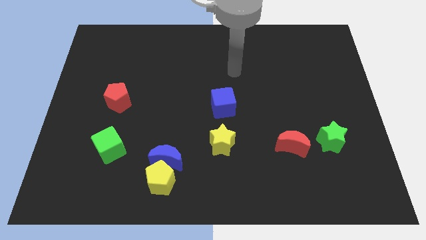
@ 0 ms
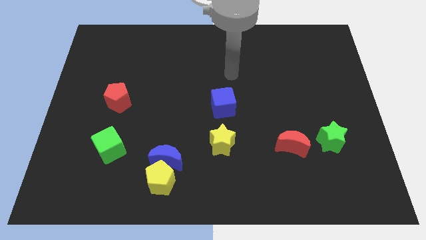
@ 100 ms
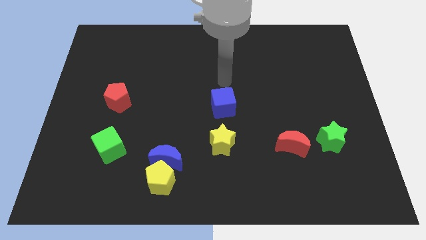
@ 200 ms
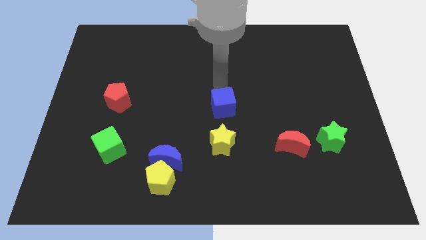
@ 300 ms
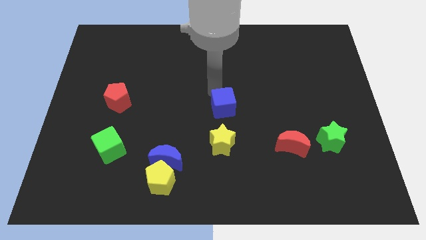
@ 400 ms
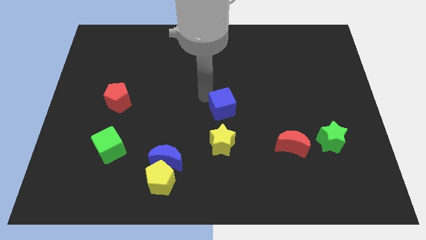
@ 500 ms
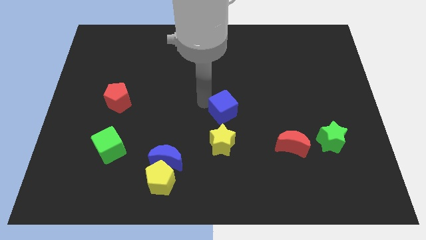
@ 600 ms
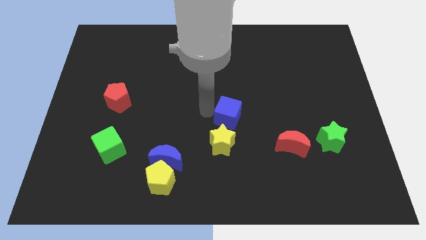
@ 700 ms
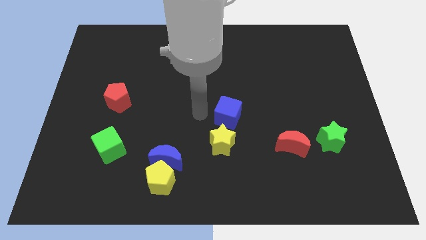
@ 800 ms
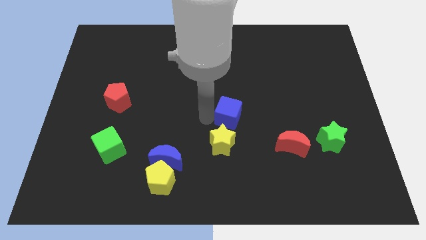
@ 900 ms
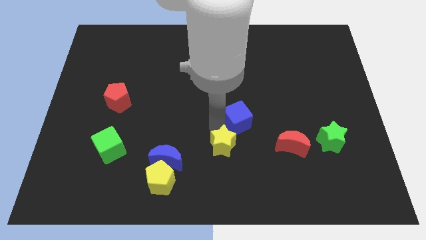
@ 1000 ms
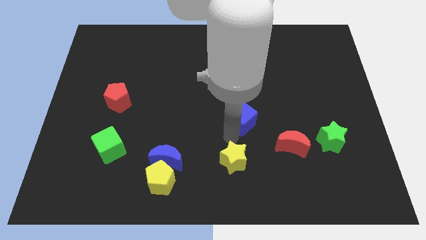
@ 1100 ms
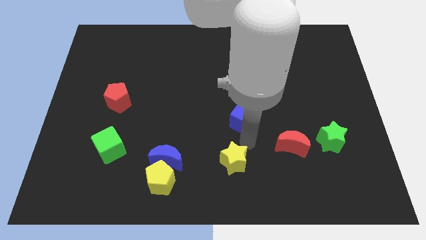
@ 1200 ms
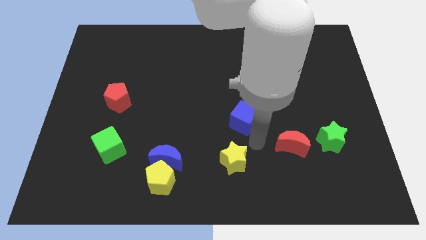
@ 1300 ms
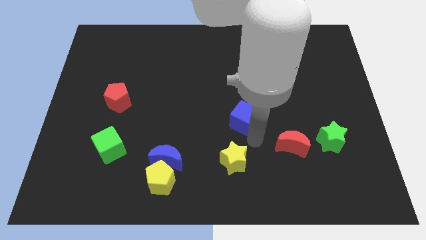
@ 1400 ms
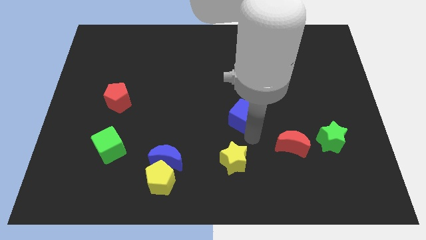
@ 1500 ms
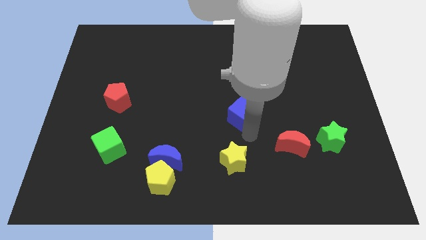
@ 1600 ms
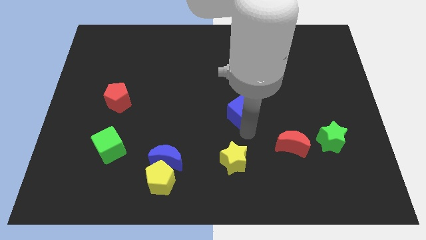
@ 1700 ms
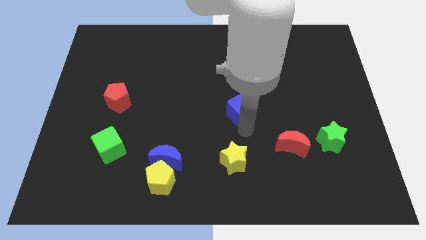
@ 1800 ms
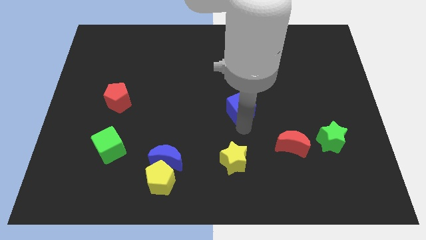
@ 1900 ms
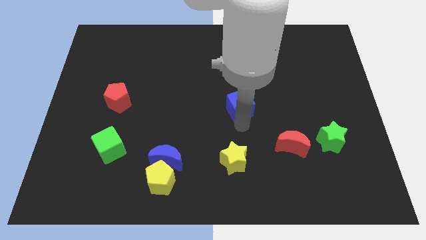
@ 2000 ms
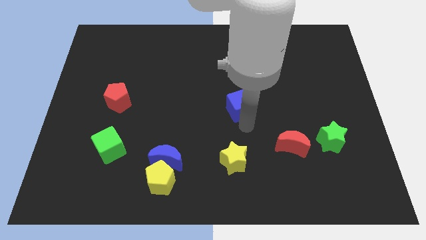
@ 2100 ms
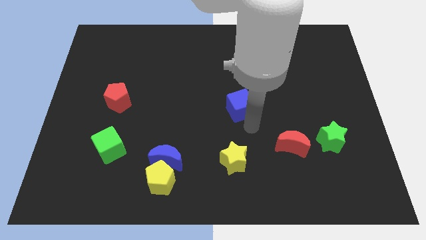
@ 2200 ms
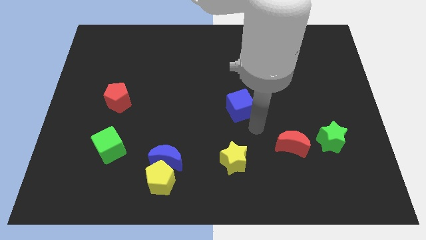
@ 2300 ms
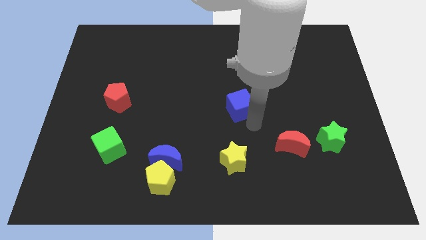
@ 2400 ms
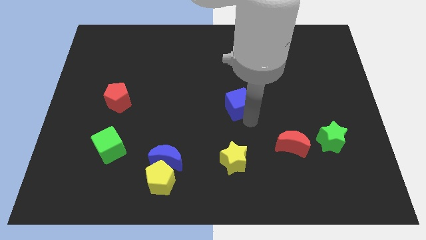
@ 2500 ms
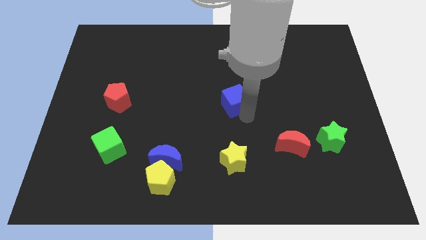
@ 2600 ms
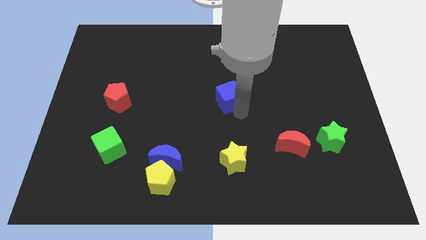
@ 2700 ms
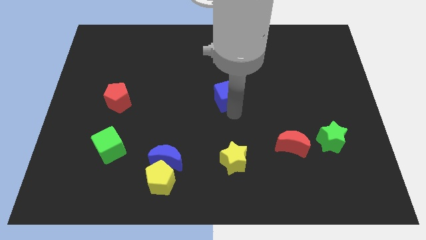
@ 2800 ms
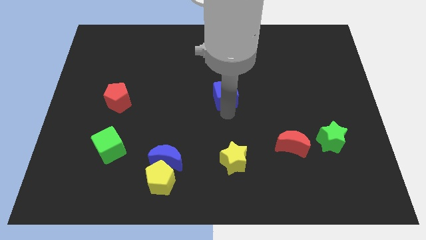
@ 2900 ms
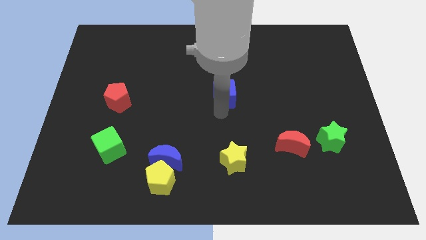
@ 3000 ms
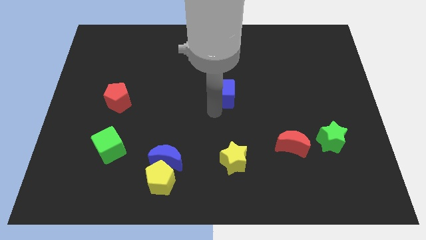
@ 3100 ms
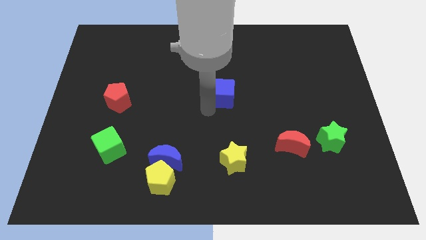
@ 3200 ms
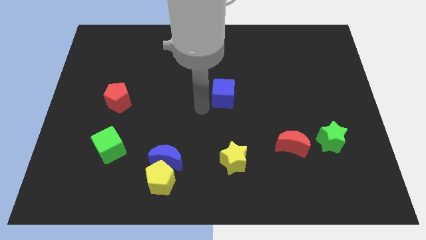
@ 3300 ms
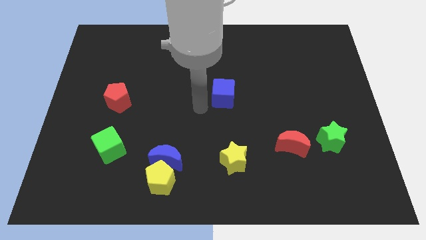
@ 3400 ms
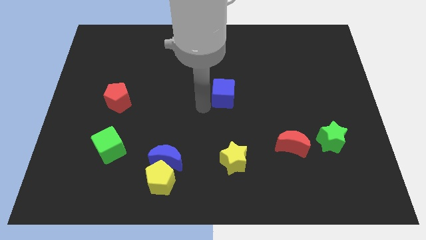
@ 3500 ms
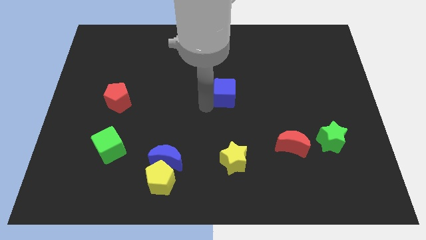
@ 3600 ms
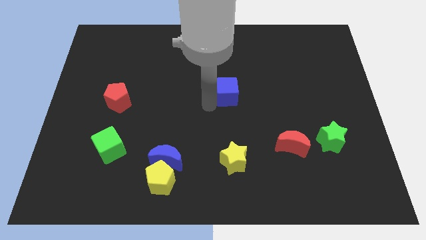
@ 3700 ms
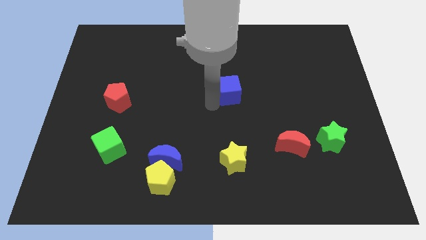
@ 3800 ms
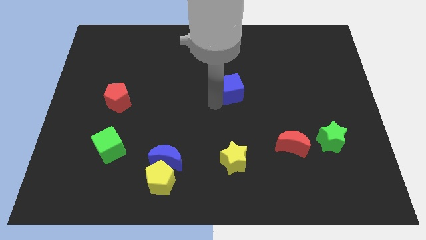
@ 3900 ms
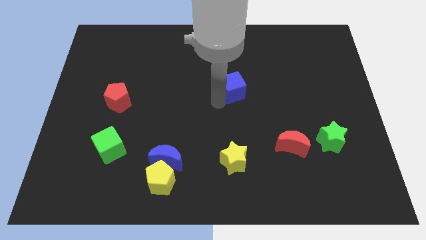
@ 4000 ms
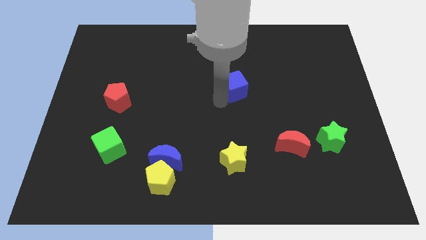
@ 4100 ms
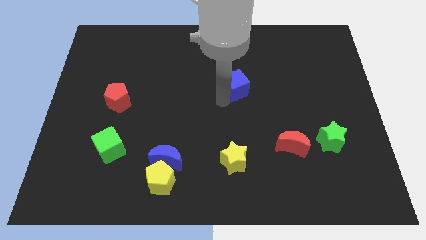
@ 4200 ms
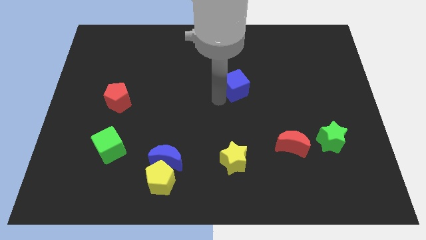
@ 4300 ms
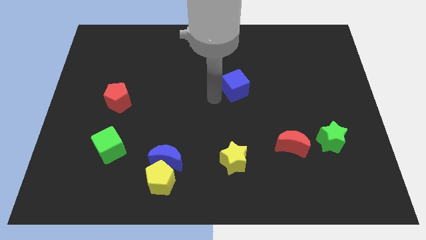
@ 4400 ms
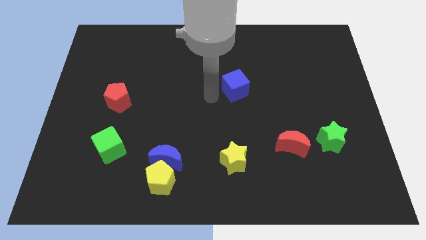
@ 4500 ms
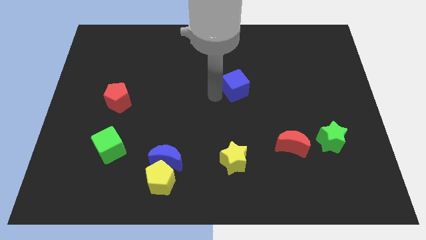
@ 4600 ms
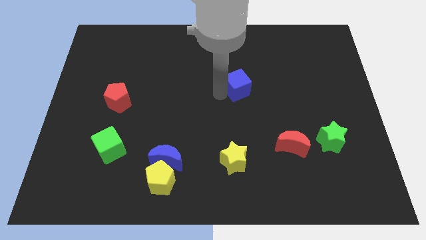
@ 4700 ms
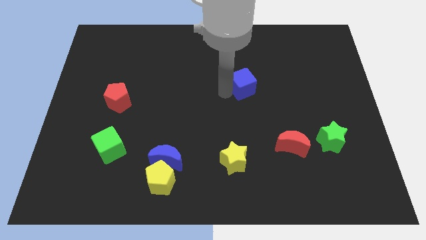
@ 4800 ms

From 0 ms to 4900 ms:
move the blue cube upwards and to the right diagonally somewhat

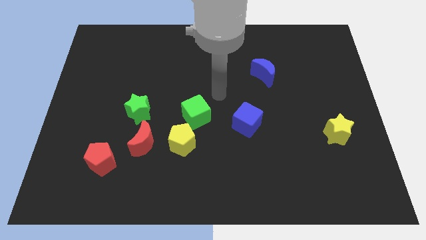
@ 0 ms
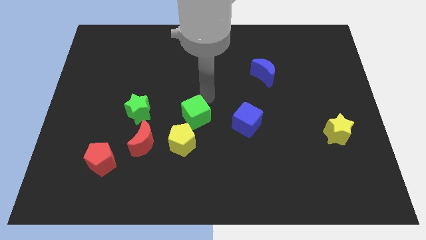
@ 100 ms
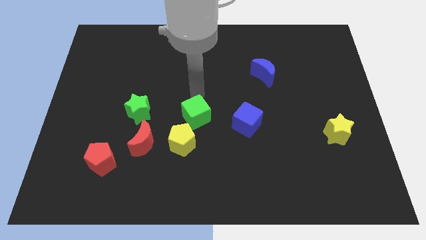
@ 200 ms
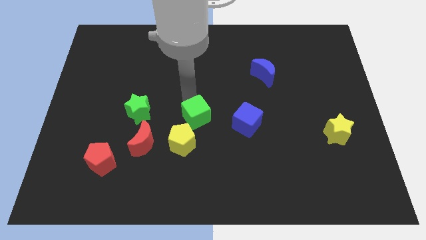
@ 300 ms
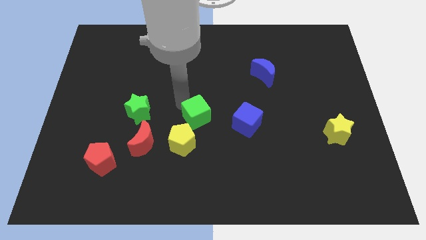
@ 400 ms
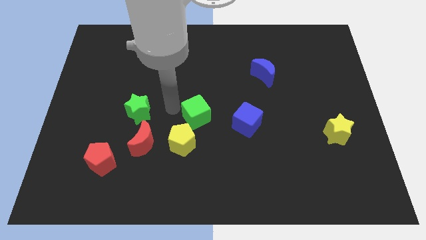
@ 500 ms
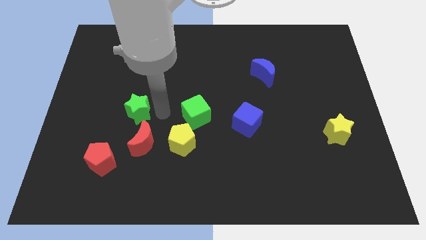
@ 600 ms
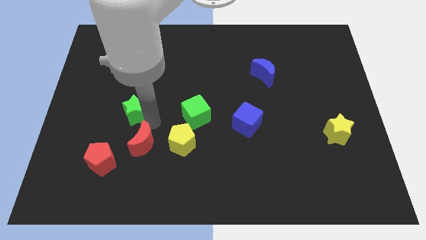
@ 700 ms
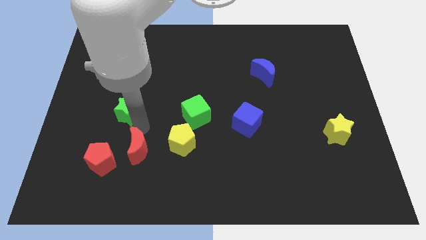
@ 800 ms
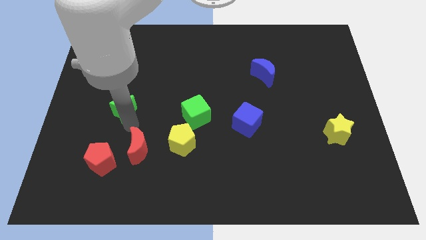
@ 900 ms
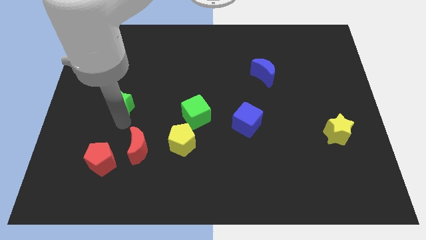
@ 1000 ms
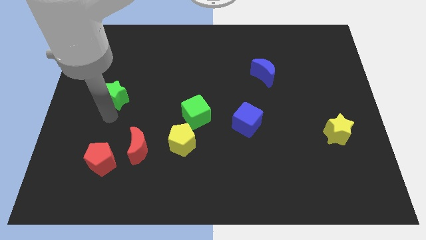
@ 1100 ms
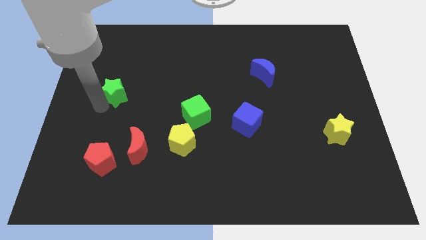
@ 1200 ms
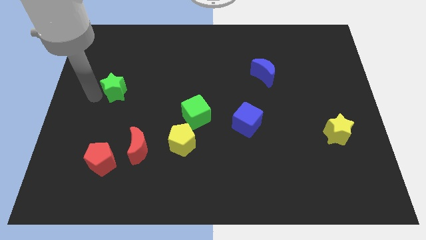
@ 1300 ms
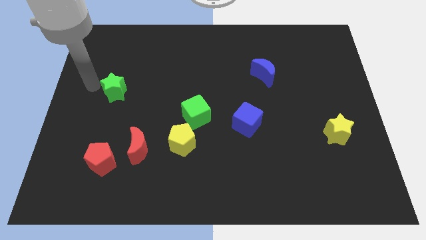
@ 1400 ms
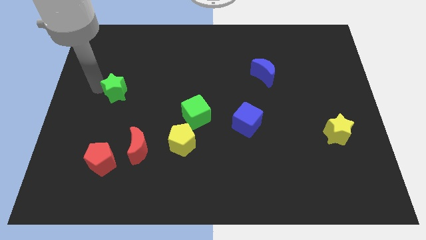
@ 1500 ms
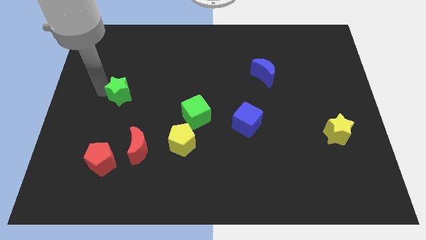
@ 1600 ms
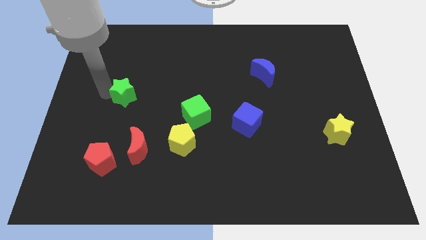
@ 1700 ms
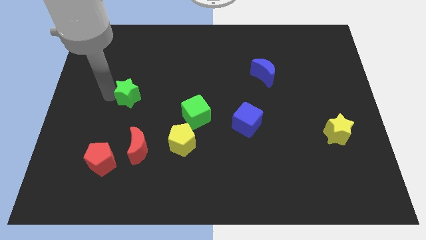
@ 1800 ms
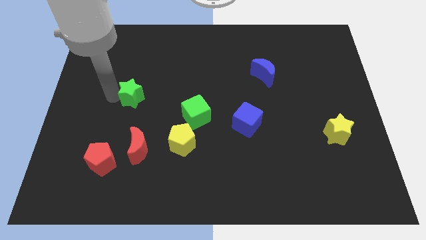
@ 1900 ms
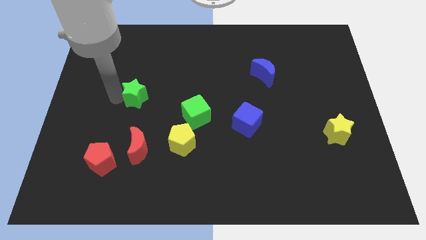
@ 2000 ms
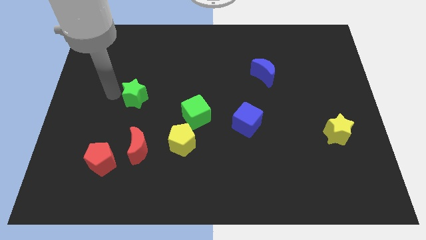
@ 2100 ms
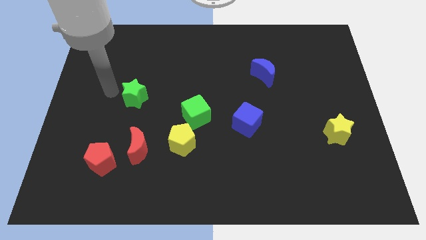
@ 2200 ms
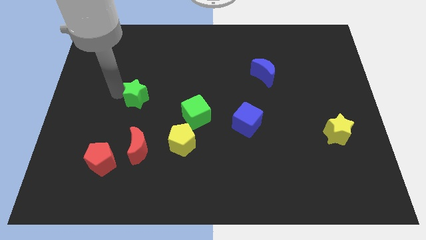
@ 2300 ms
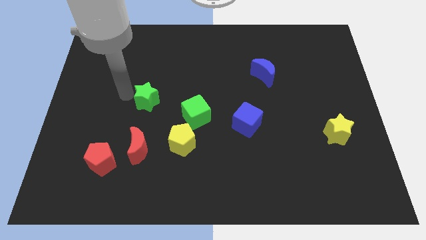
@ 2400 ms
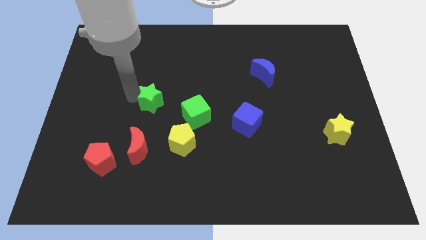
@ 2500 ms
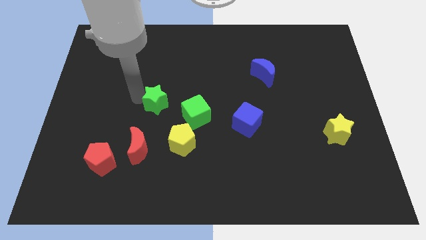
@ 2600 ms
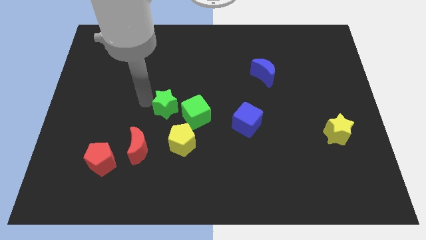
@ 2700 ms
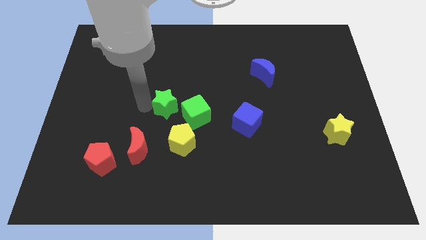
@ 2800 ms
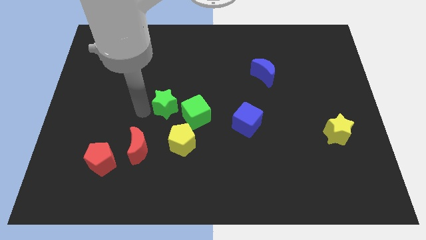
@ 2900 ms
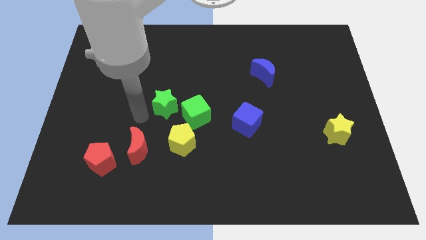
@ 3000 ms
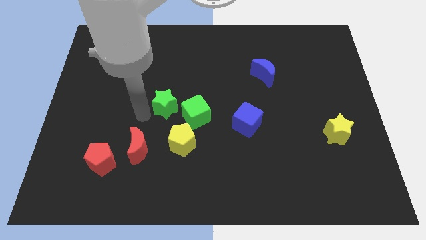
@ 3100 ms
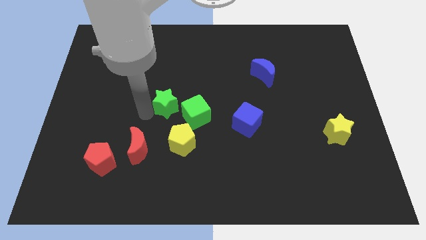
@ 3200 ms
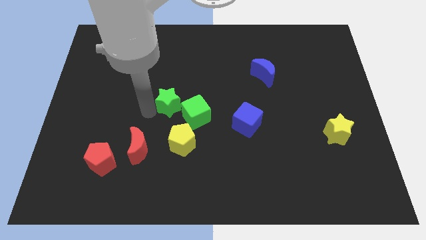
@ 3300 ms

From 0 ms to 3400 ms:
slide the green star right a little

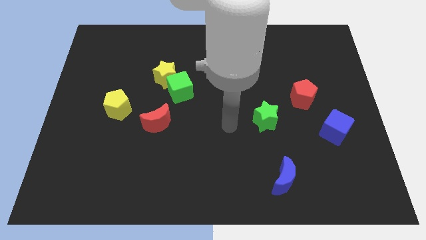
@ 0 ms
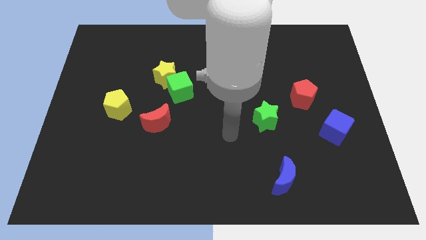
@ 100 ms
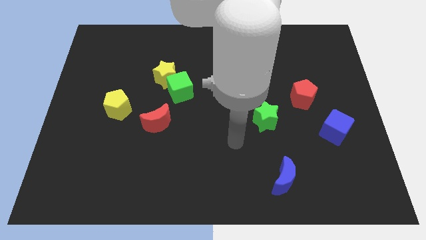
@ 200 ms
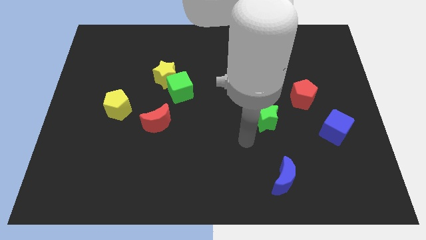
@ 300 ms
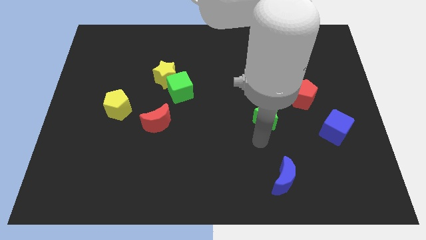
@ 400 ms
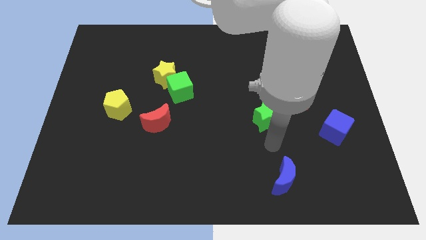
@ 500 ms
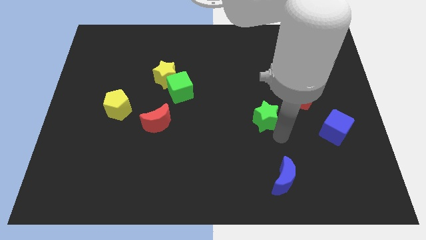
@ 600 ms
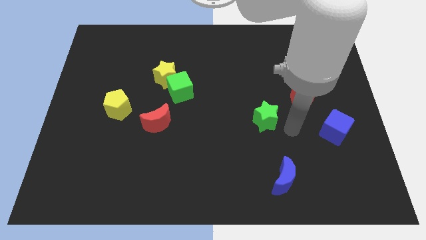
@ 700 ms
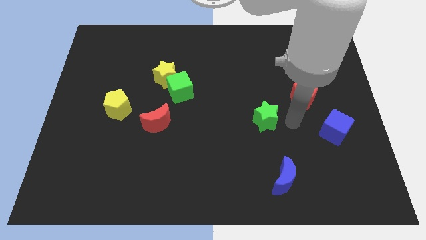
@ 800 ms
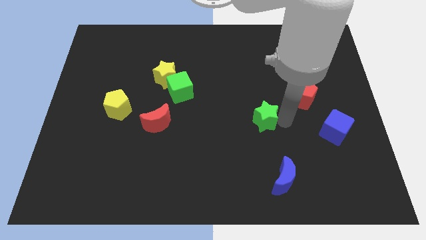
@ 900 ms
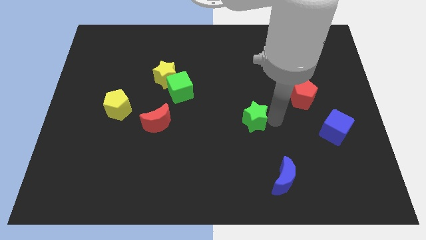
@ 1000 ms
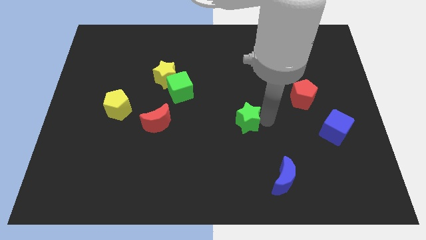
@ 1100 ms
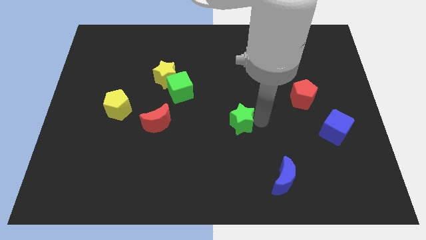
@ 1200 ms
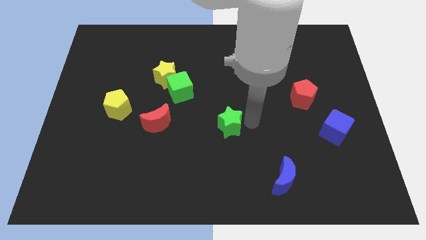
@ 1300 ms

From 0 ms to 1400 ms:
move the green star slightly left
